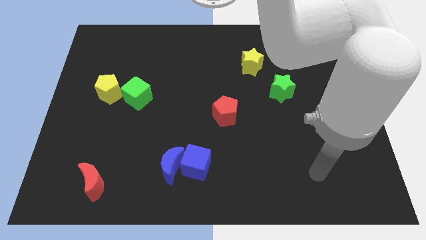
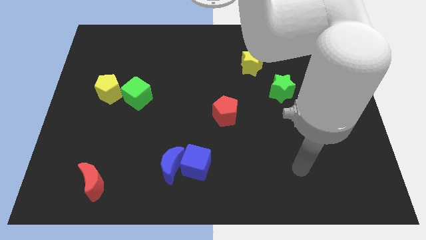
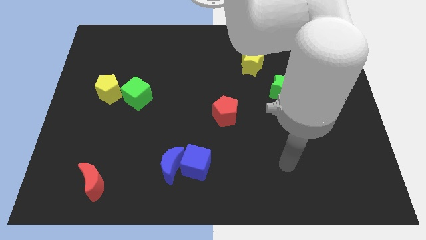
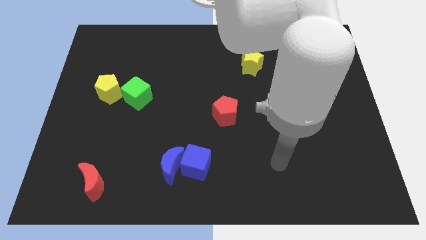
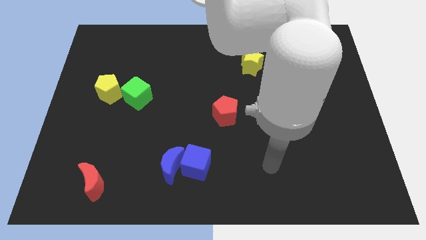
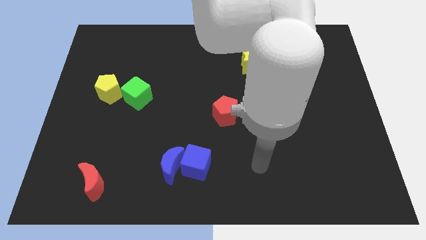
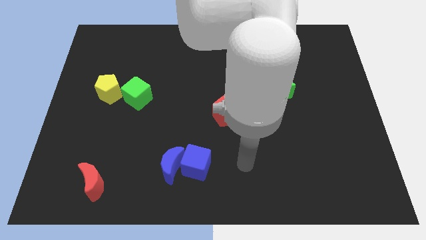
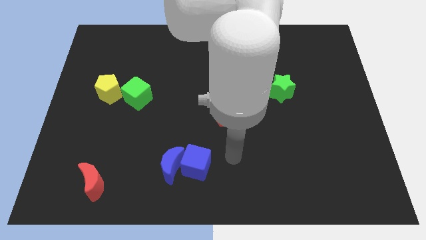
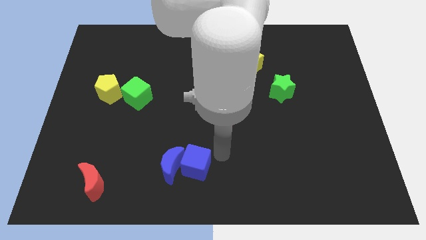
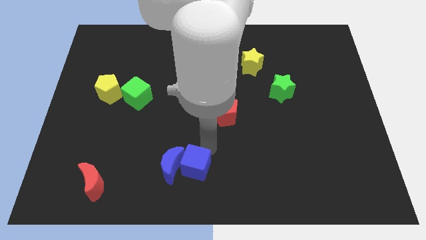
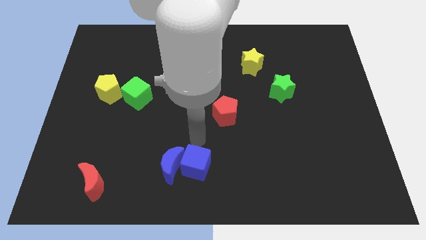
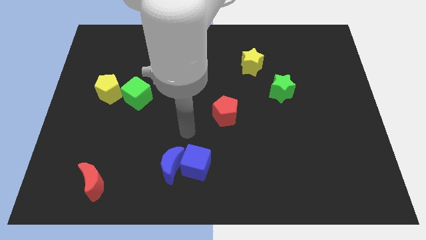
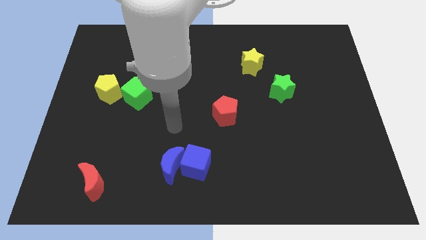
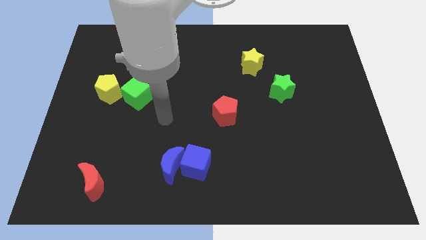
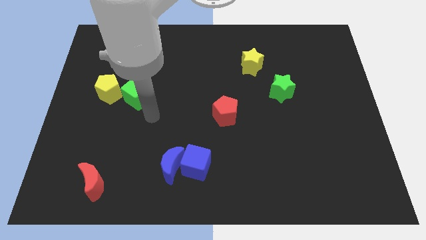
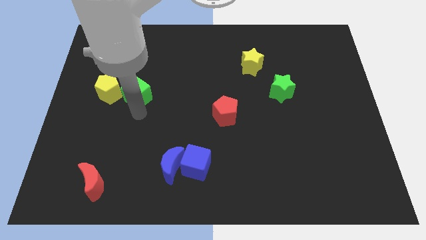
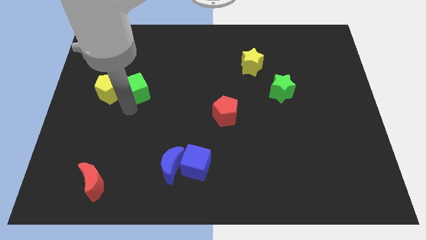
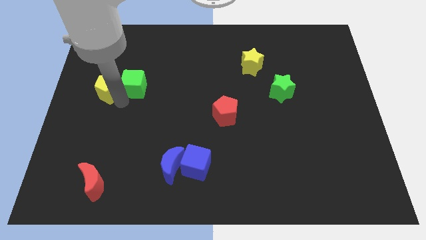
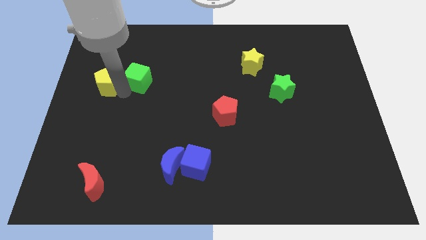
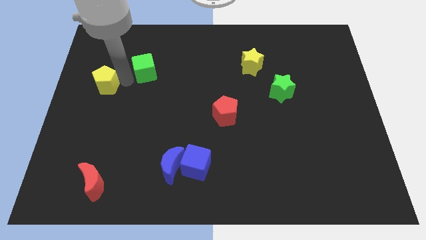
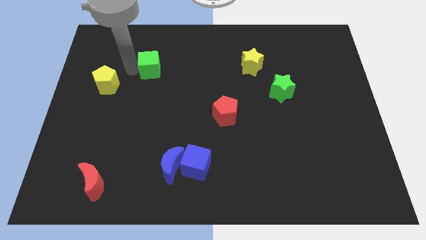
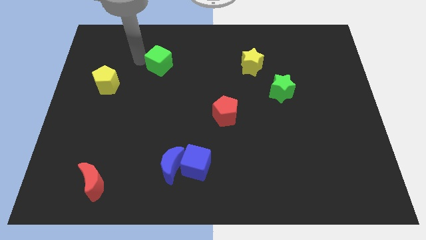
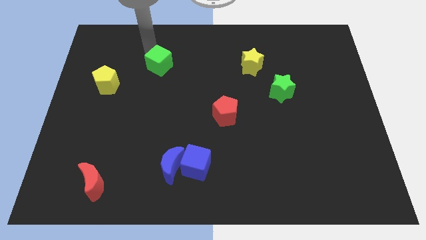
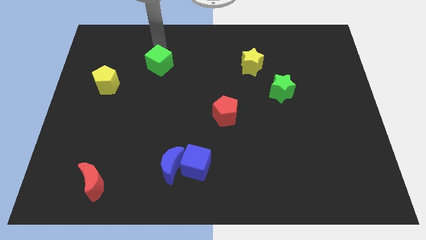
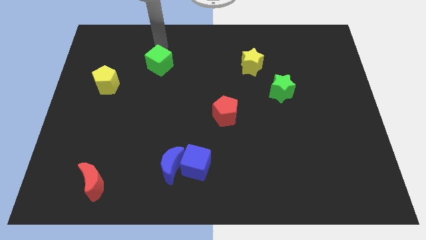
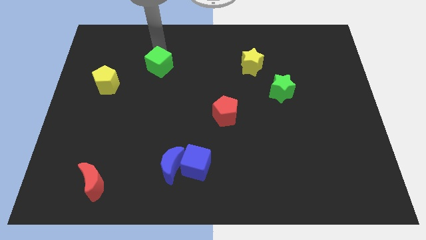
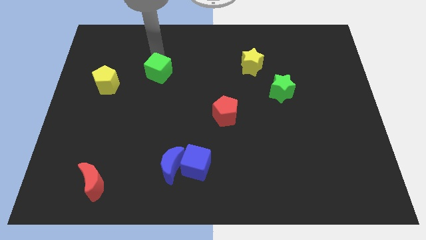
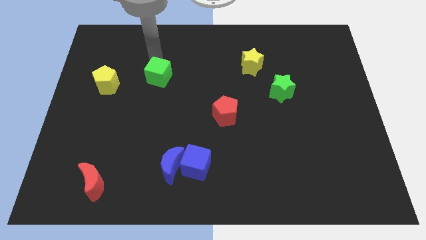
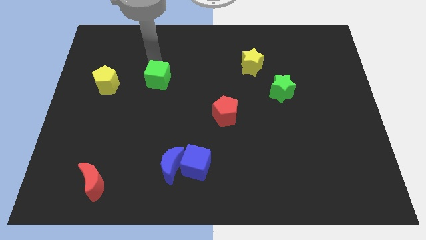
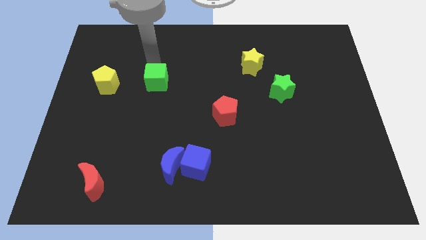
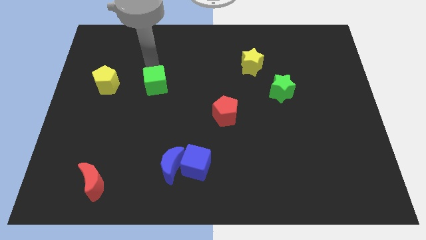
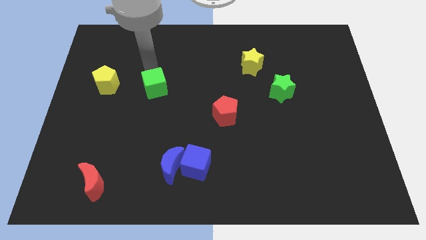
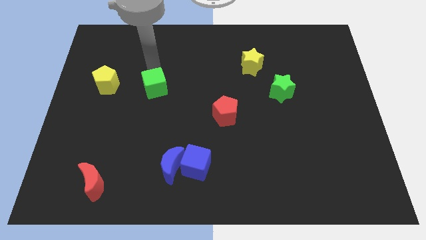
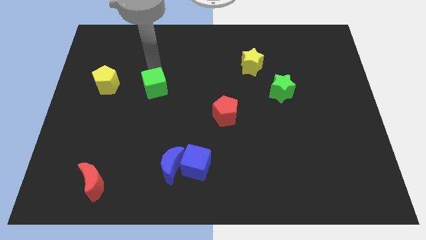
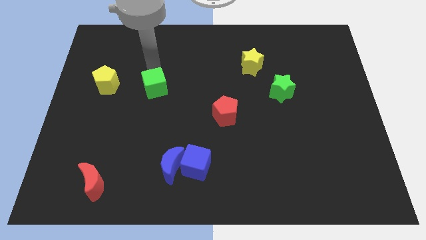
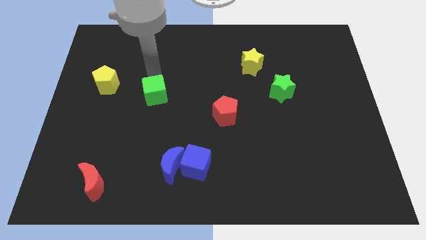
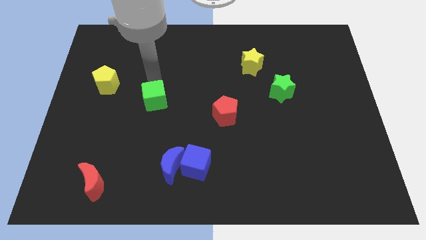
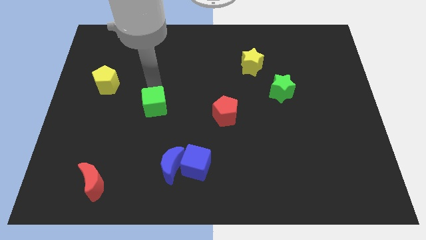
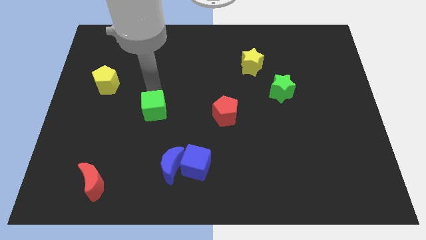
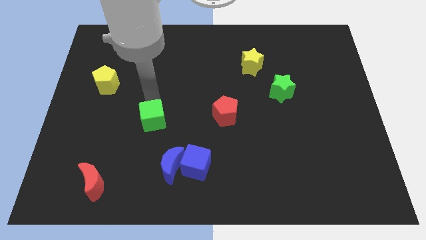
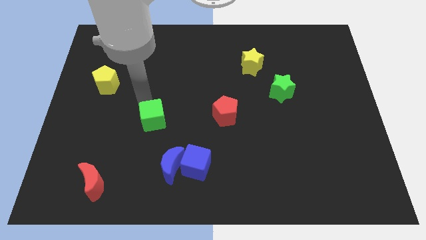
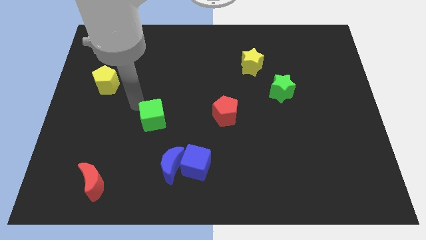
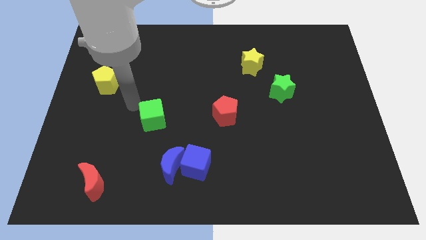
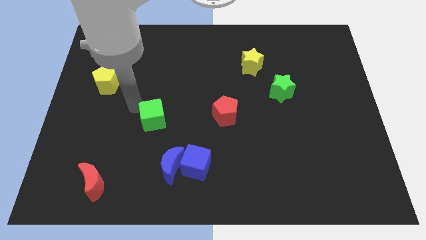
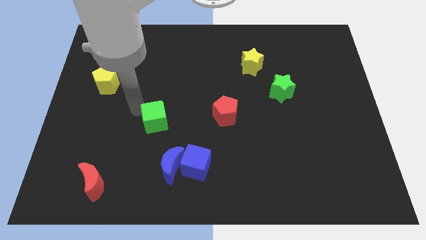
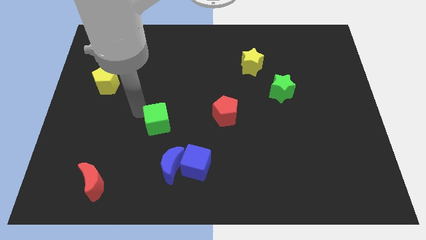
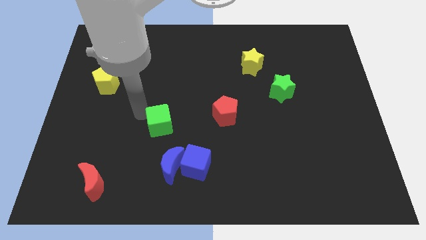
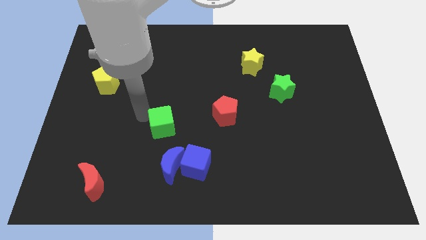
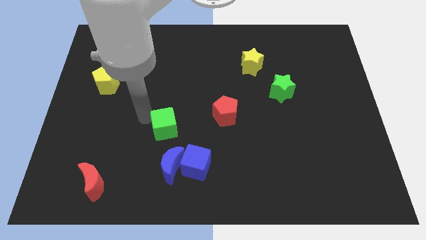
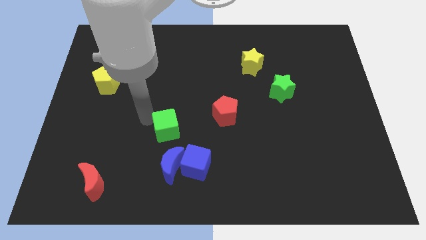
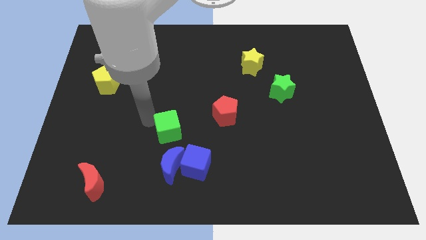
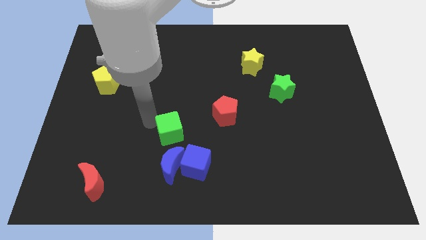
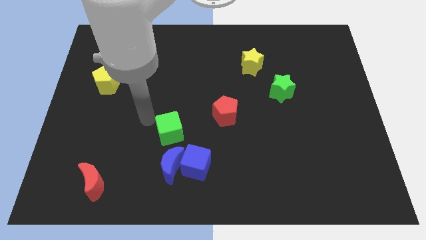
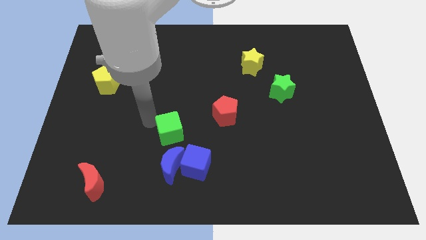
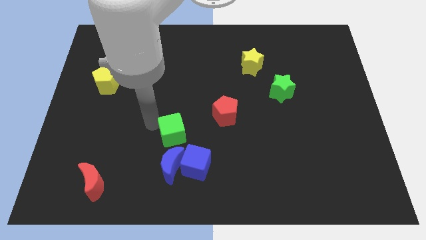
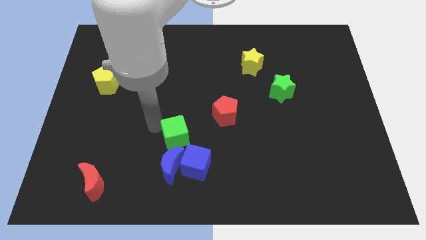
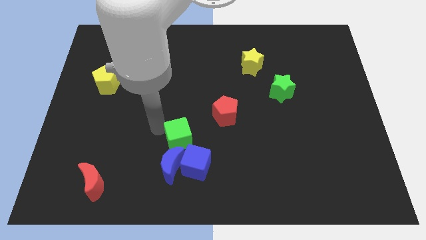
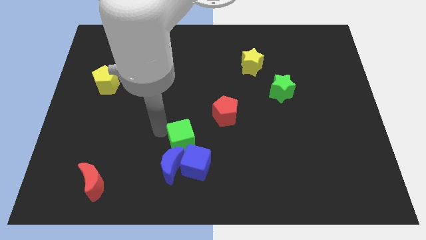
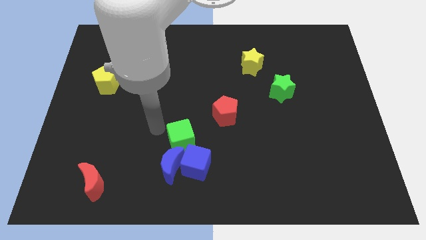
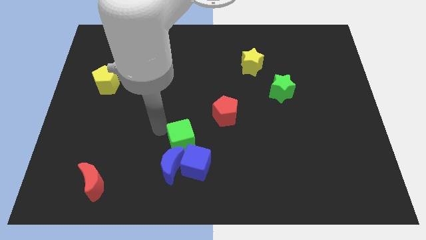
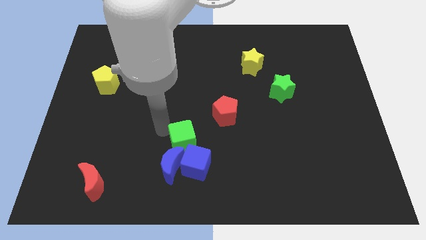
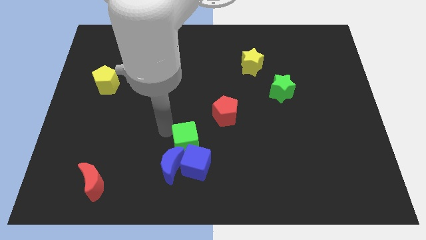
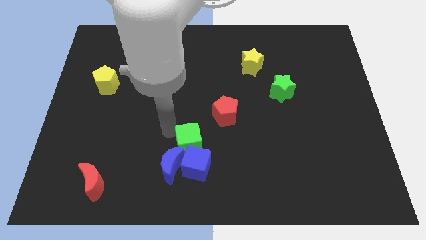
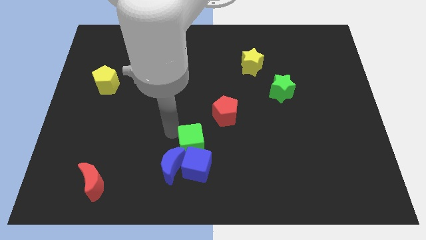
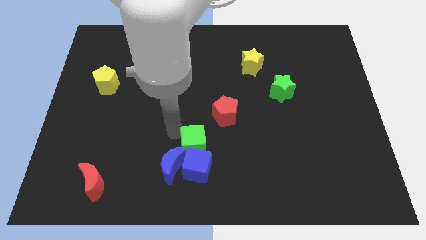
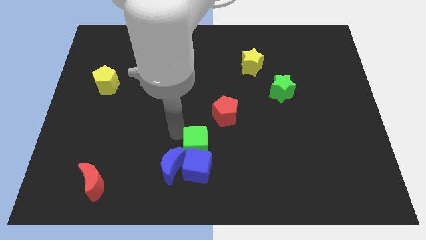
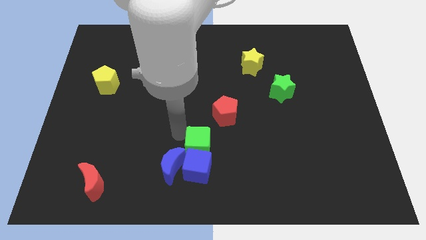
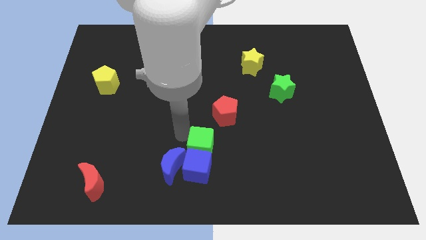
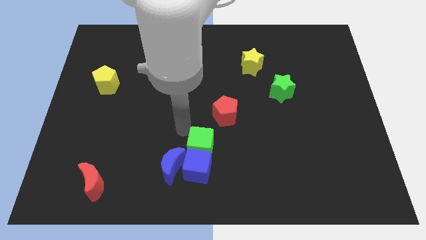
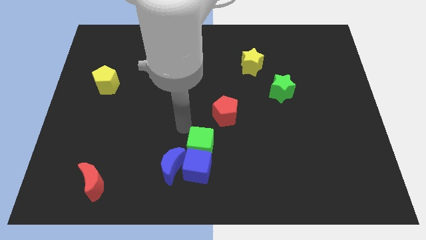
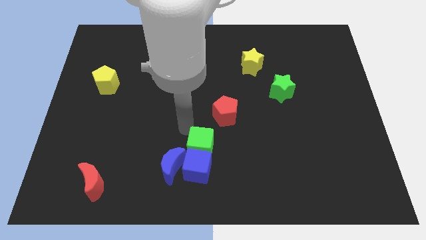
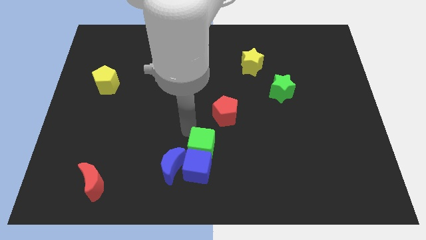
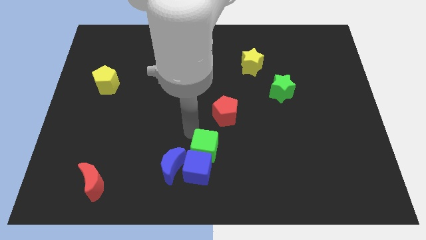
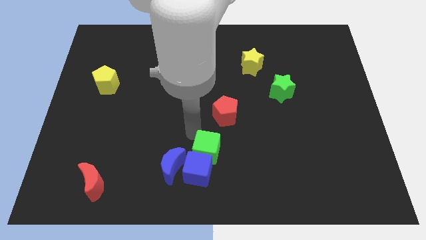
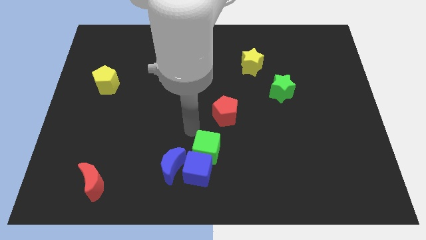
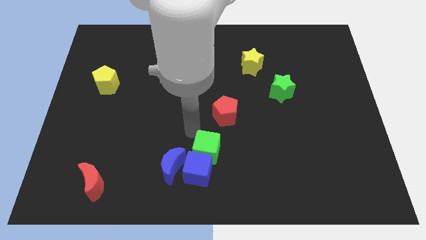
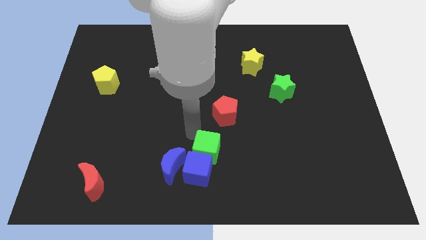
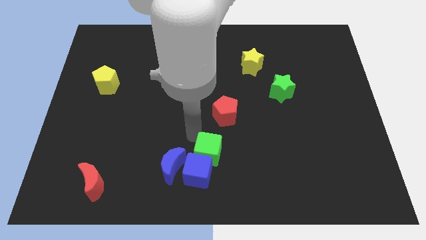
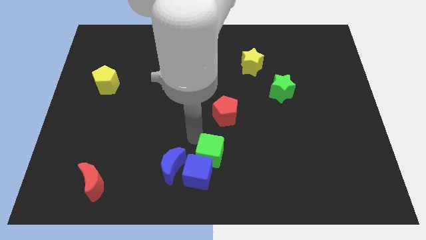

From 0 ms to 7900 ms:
move the green cube to the bottom side
